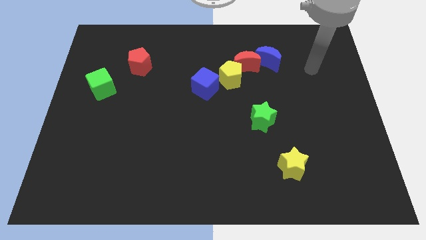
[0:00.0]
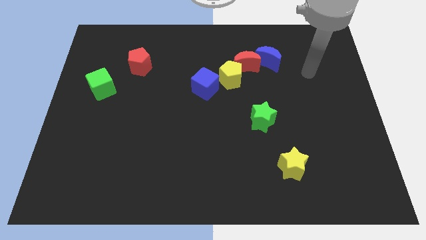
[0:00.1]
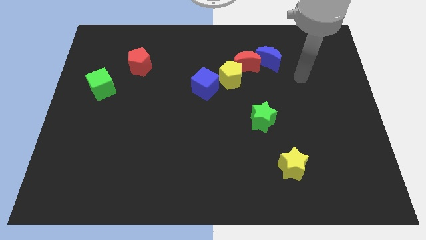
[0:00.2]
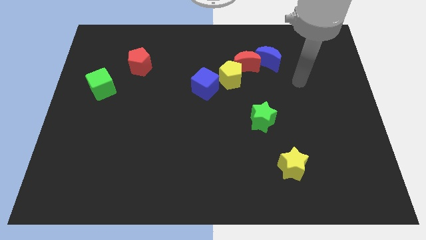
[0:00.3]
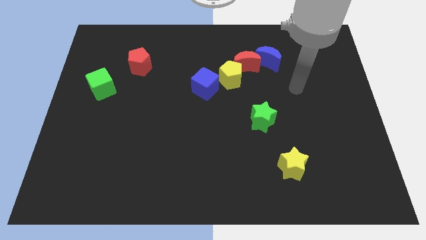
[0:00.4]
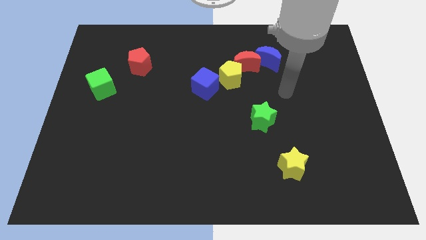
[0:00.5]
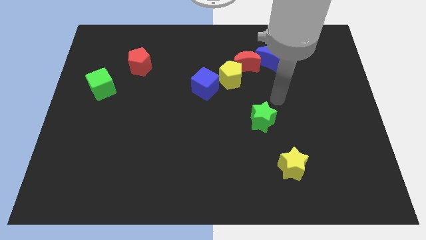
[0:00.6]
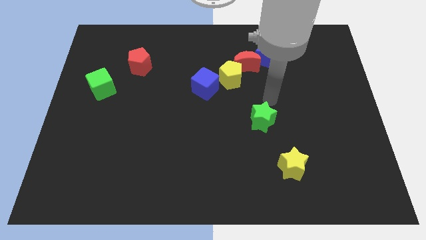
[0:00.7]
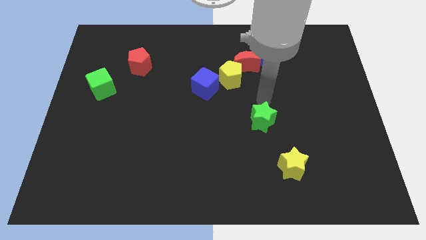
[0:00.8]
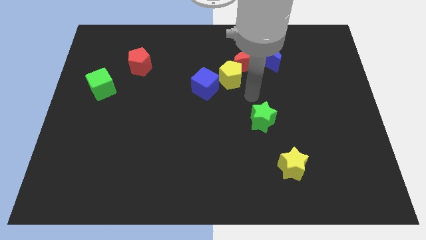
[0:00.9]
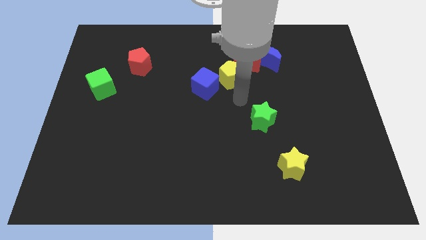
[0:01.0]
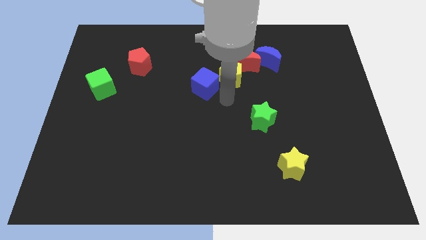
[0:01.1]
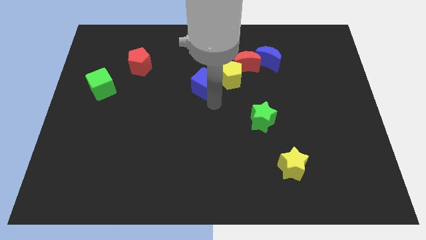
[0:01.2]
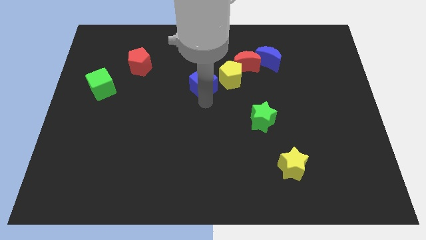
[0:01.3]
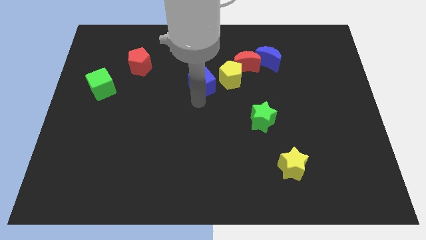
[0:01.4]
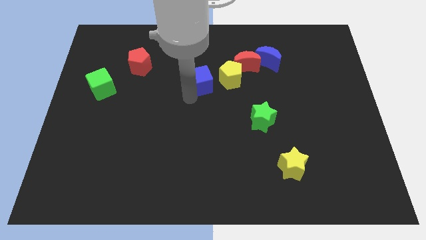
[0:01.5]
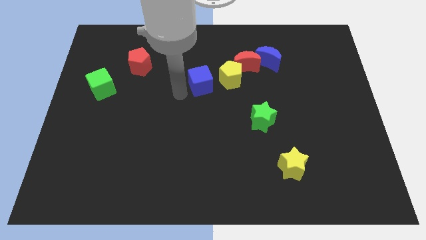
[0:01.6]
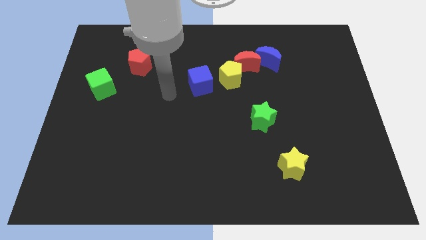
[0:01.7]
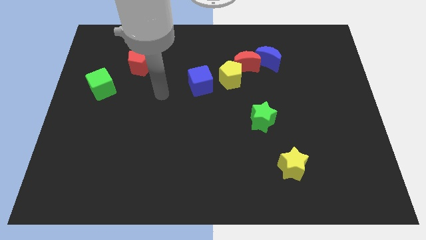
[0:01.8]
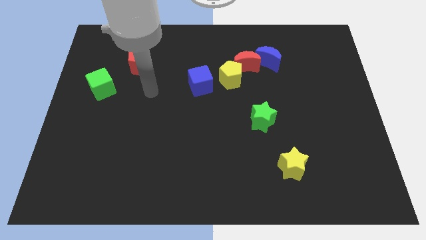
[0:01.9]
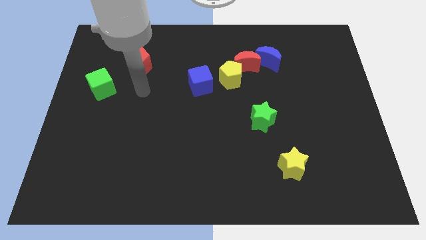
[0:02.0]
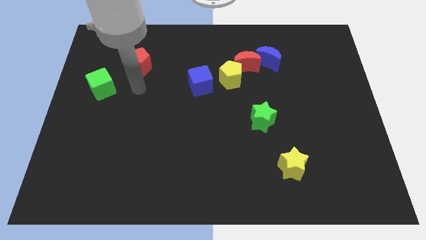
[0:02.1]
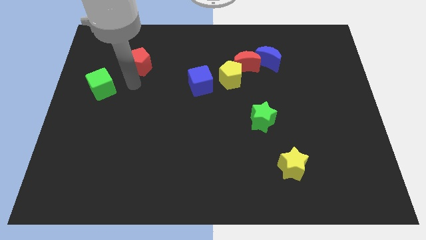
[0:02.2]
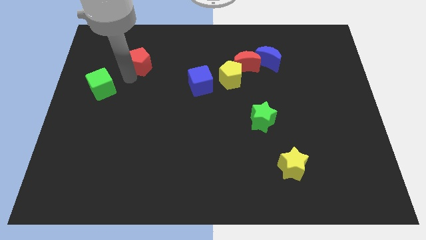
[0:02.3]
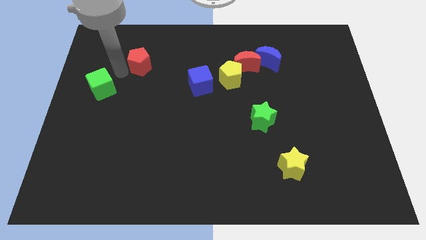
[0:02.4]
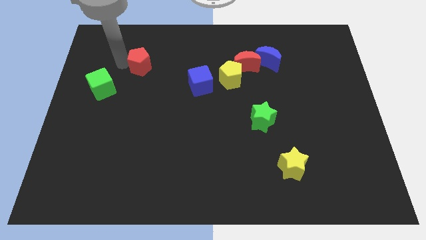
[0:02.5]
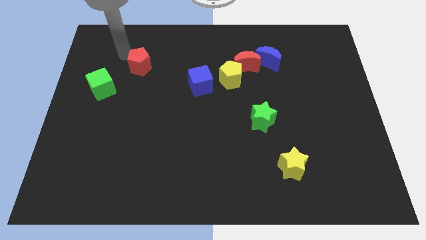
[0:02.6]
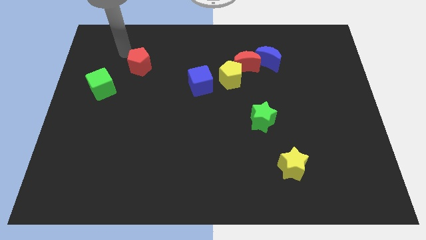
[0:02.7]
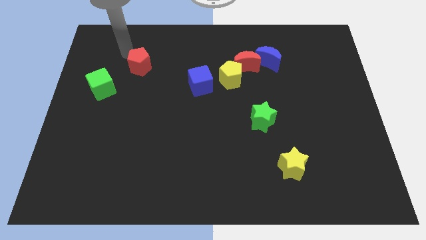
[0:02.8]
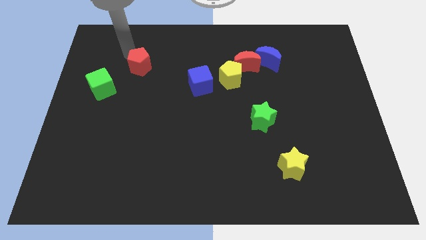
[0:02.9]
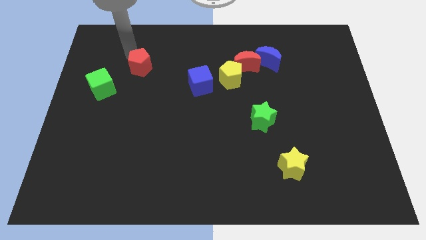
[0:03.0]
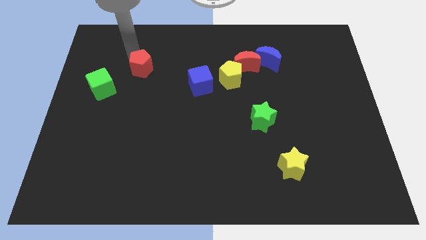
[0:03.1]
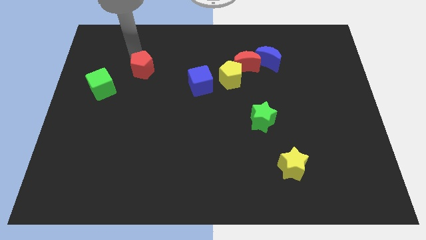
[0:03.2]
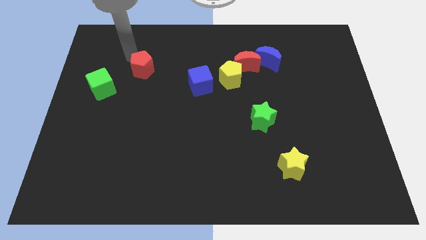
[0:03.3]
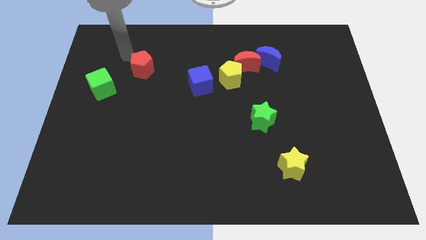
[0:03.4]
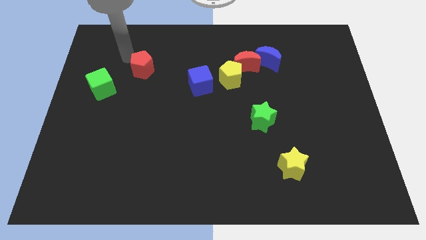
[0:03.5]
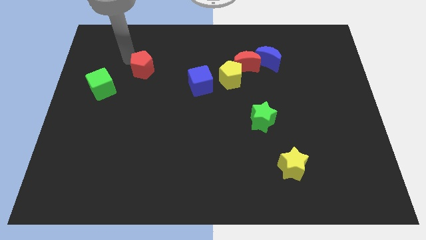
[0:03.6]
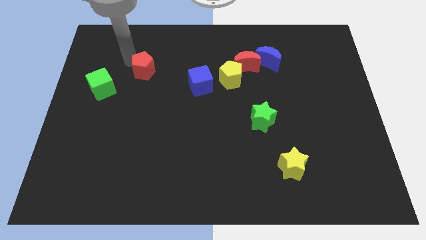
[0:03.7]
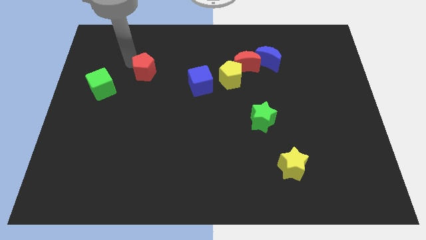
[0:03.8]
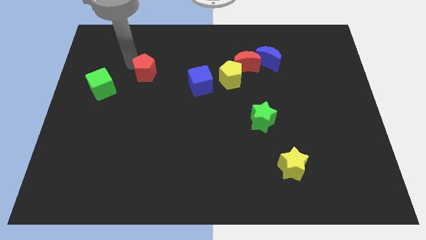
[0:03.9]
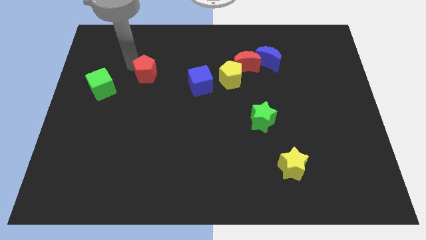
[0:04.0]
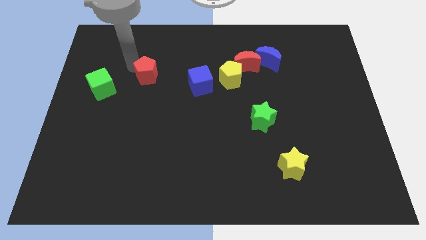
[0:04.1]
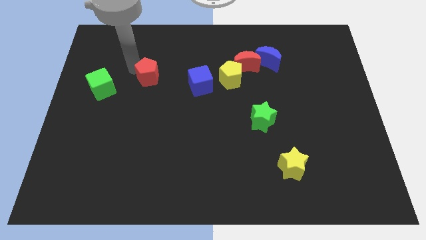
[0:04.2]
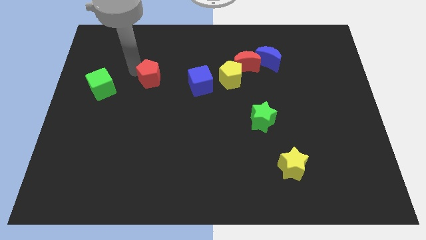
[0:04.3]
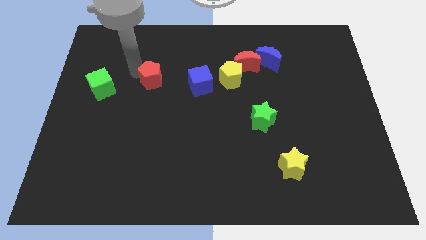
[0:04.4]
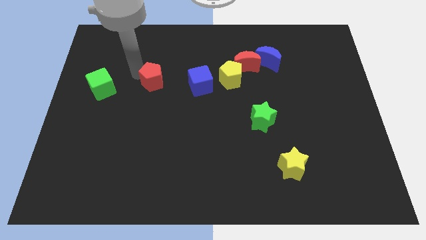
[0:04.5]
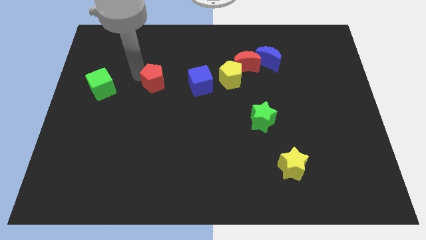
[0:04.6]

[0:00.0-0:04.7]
move the red pentagon a bit downwards and to the right

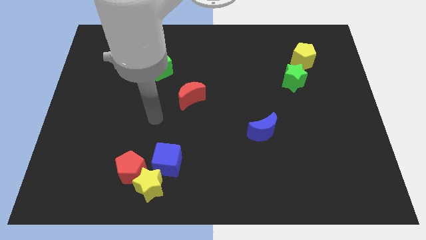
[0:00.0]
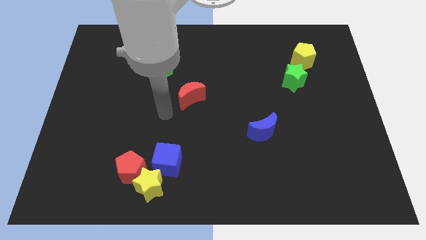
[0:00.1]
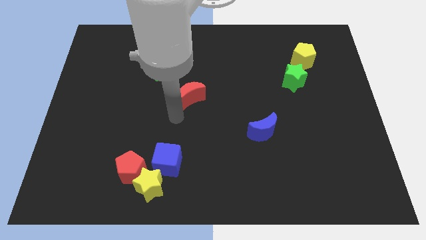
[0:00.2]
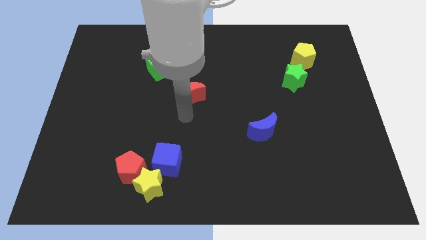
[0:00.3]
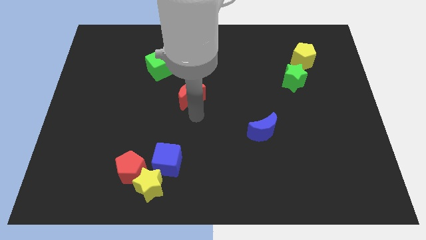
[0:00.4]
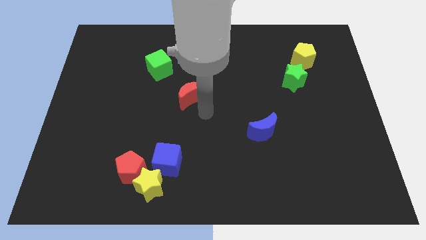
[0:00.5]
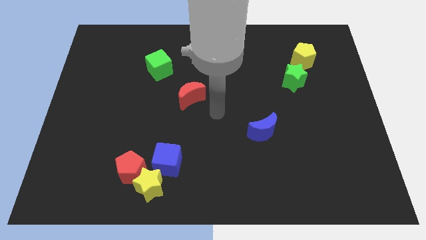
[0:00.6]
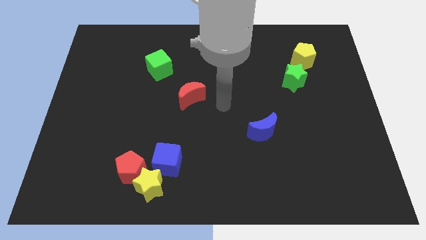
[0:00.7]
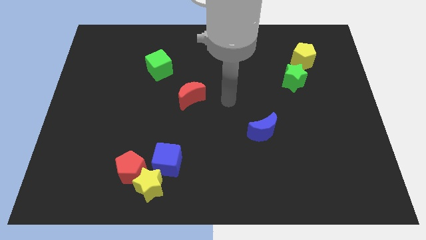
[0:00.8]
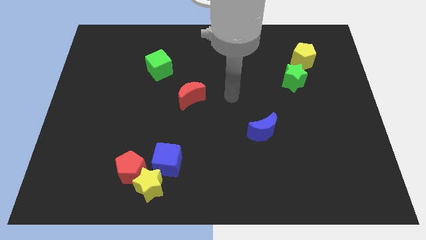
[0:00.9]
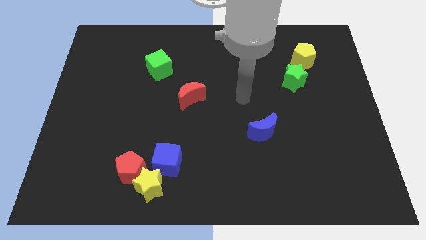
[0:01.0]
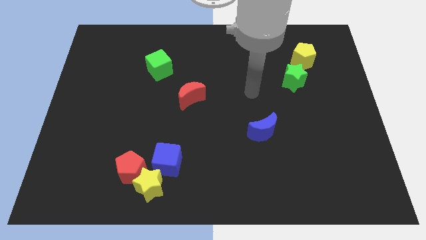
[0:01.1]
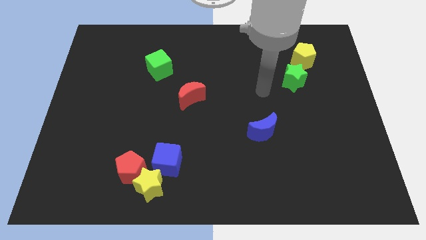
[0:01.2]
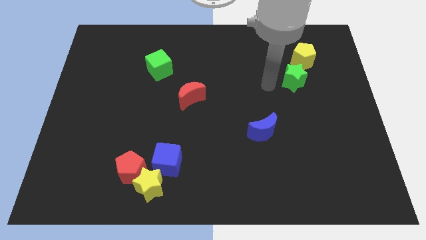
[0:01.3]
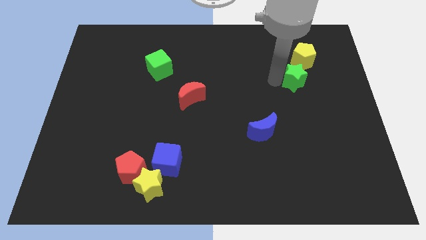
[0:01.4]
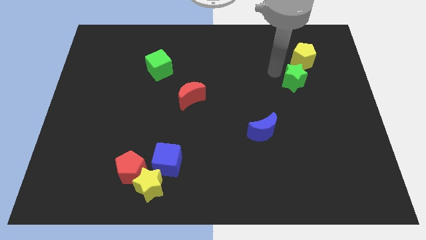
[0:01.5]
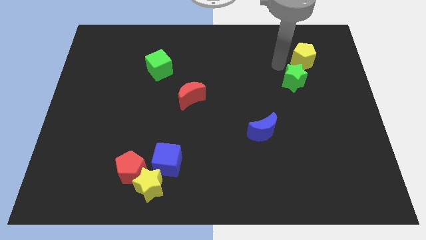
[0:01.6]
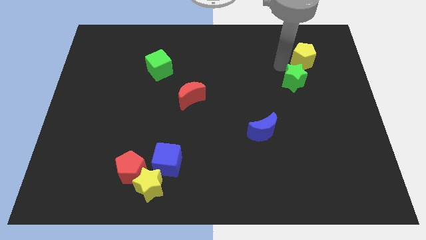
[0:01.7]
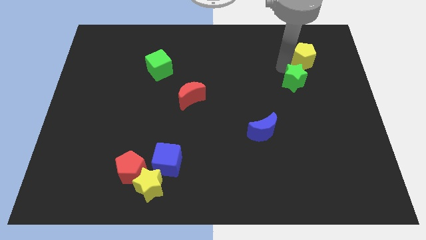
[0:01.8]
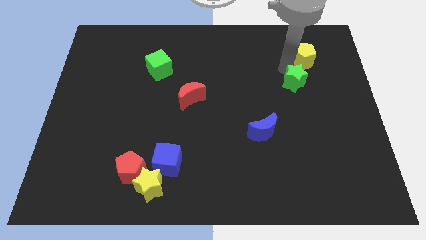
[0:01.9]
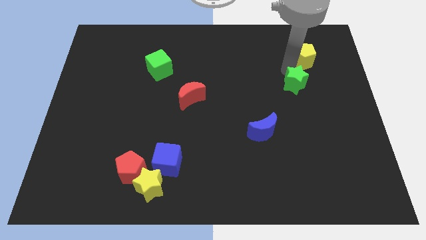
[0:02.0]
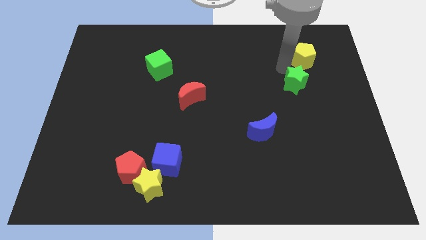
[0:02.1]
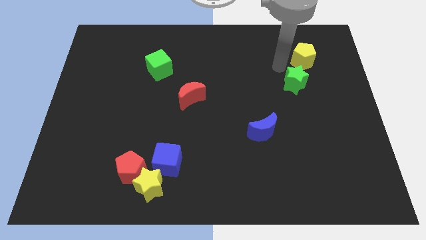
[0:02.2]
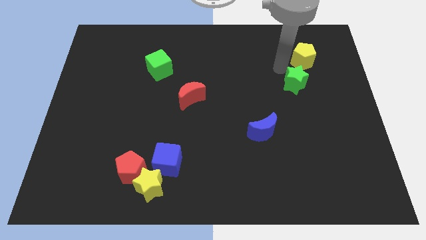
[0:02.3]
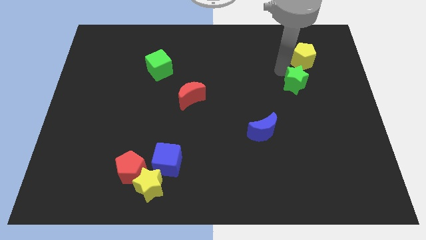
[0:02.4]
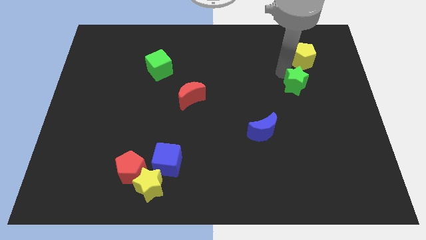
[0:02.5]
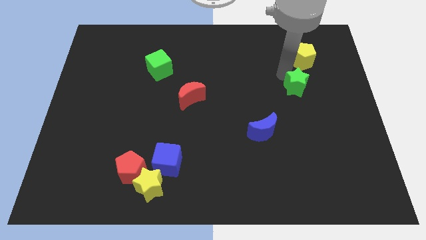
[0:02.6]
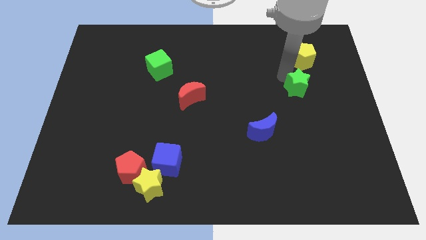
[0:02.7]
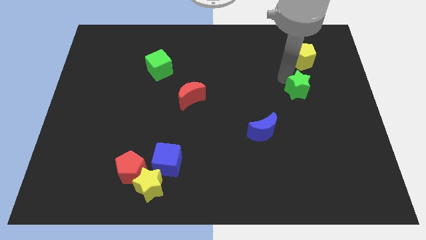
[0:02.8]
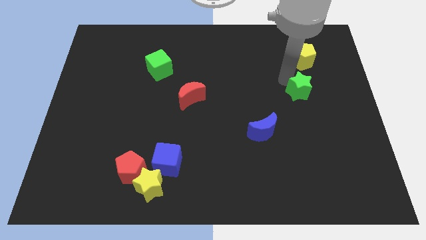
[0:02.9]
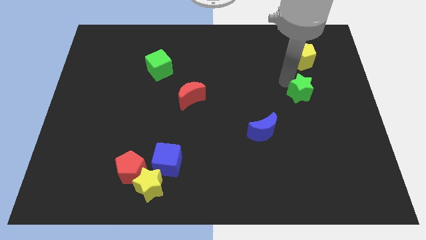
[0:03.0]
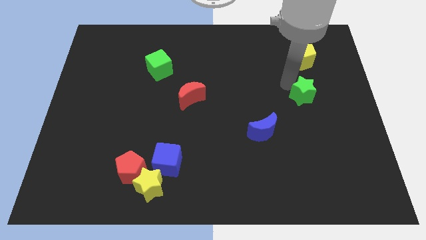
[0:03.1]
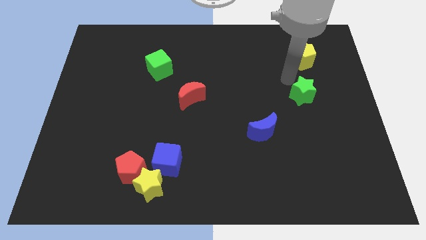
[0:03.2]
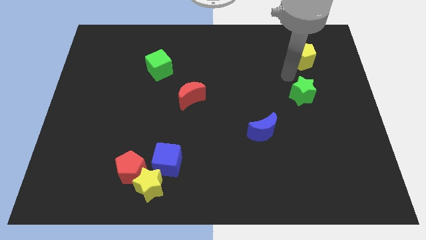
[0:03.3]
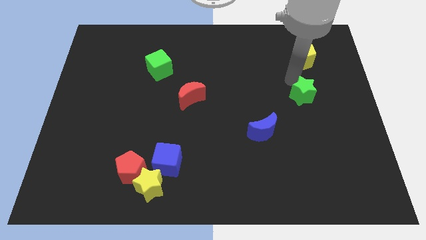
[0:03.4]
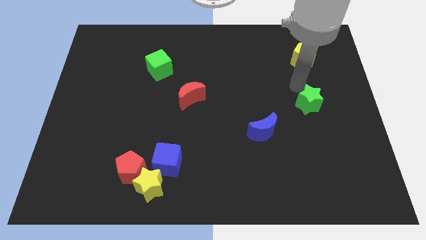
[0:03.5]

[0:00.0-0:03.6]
slightly slide the green star down
